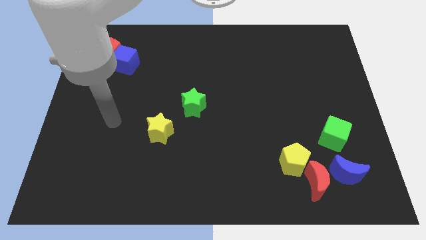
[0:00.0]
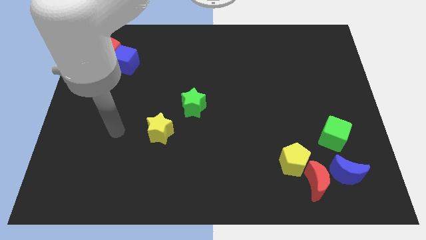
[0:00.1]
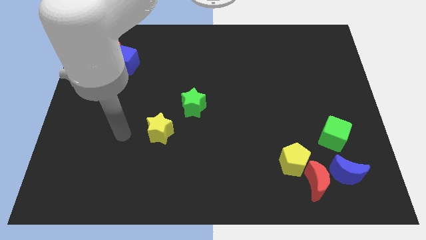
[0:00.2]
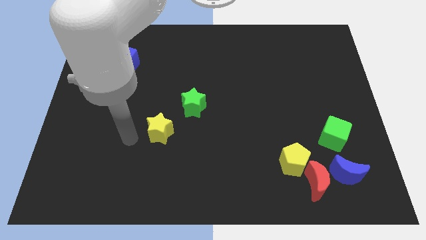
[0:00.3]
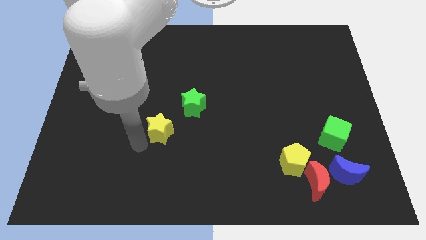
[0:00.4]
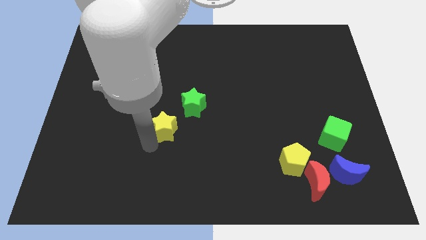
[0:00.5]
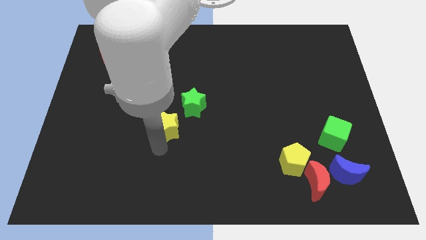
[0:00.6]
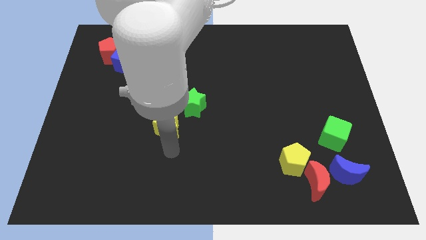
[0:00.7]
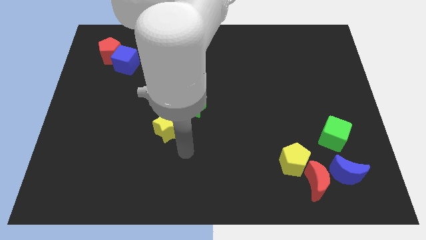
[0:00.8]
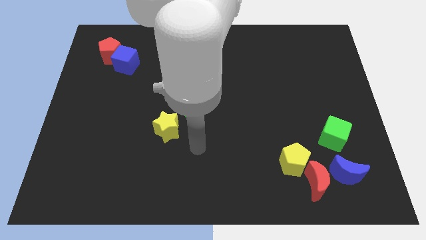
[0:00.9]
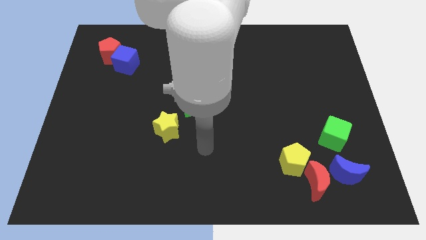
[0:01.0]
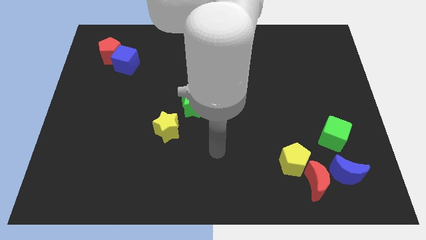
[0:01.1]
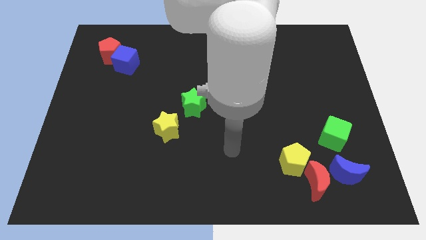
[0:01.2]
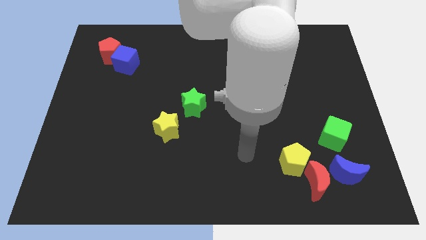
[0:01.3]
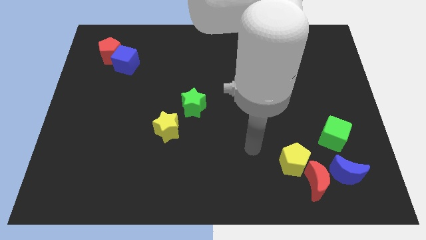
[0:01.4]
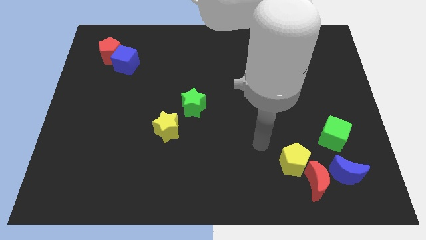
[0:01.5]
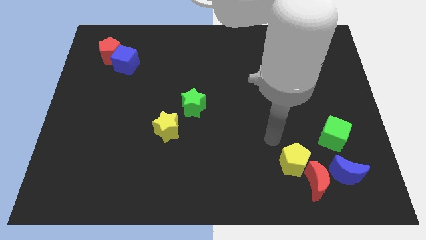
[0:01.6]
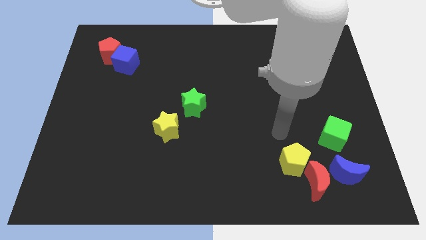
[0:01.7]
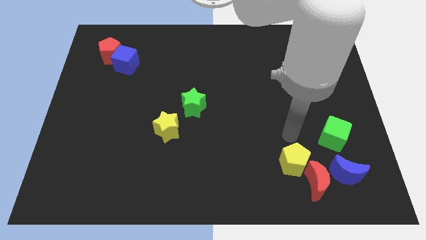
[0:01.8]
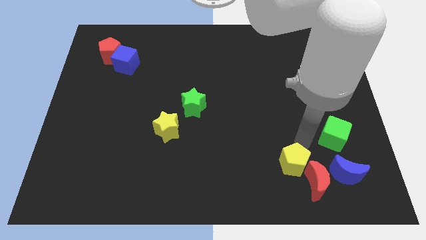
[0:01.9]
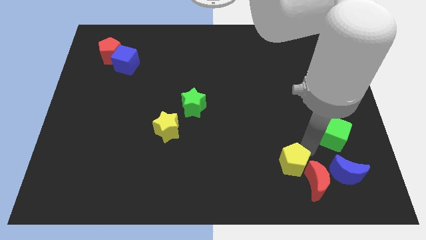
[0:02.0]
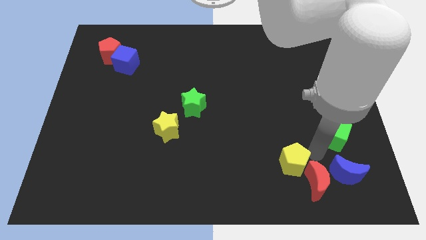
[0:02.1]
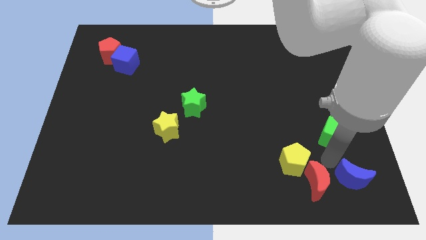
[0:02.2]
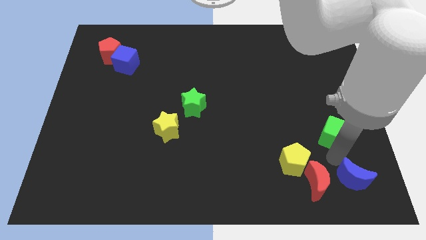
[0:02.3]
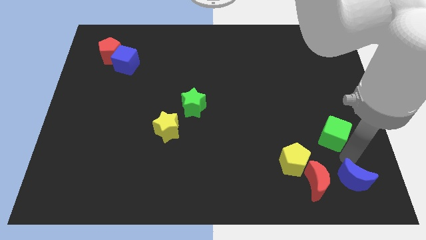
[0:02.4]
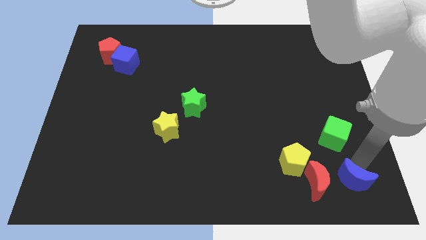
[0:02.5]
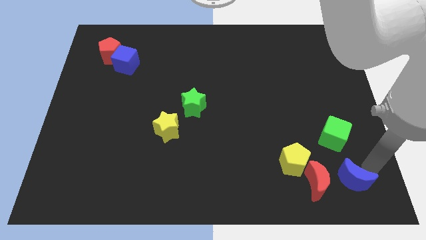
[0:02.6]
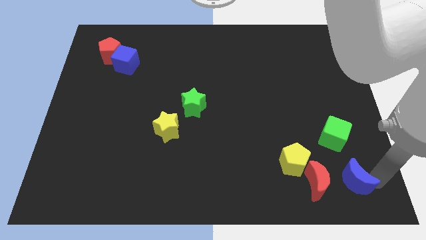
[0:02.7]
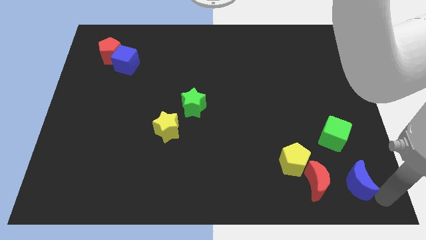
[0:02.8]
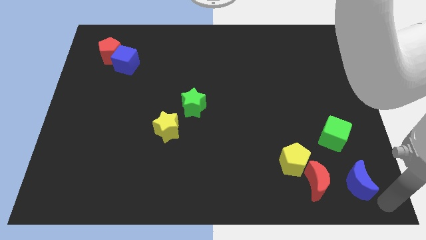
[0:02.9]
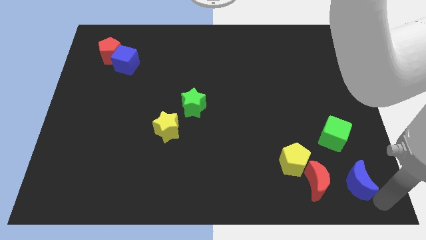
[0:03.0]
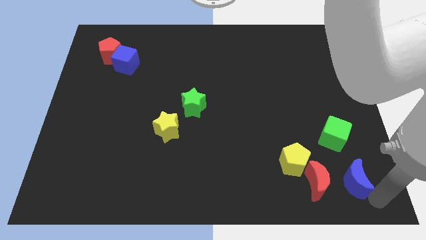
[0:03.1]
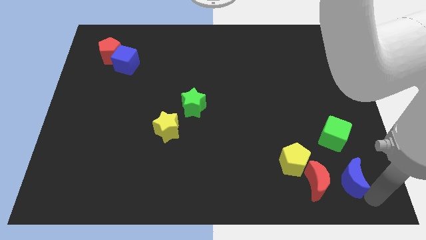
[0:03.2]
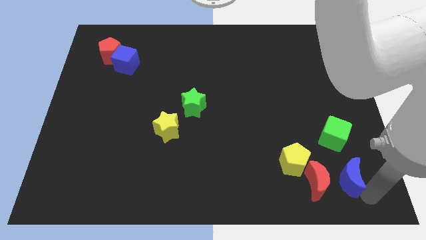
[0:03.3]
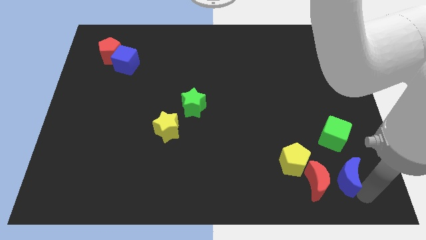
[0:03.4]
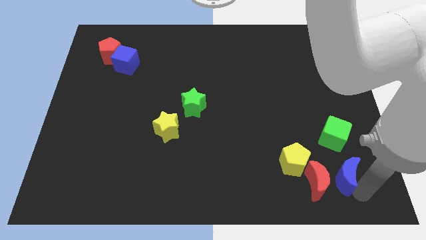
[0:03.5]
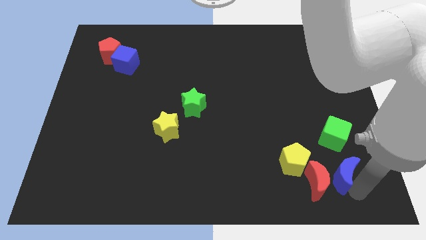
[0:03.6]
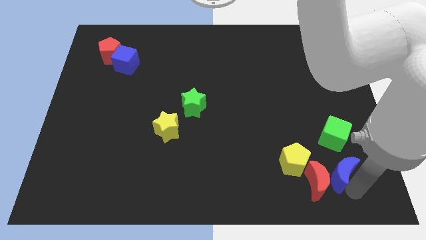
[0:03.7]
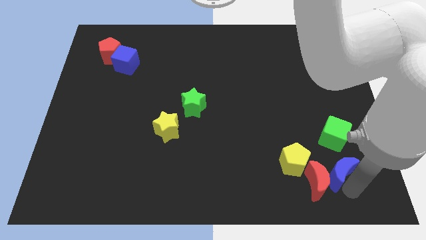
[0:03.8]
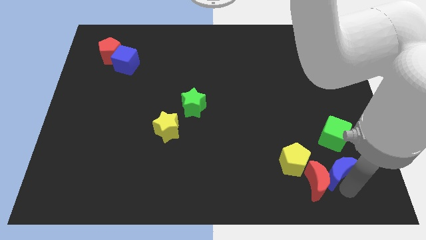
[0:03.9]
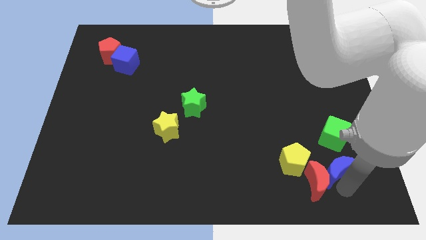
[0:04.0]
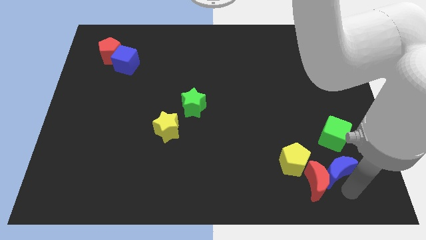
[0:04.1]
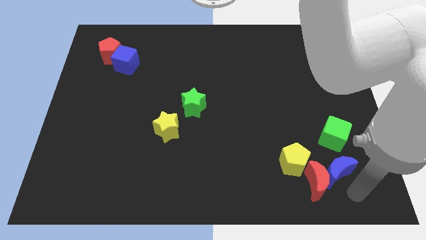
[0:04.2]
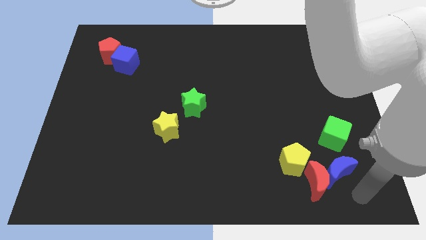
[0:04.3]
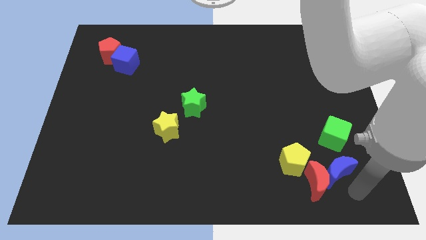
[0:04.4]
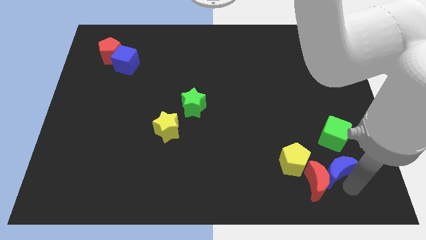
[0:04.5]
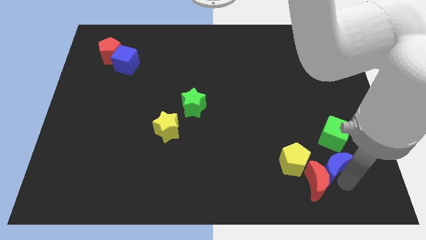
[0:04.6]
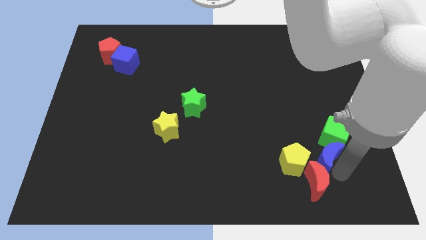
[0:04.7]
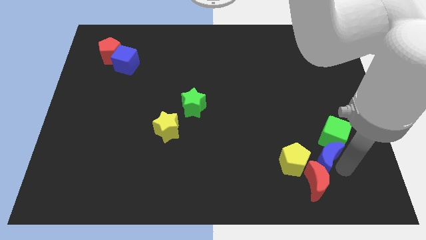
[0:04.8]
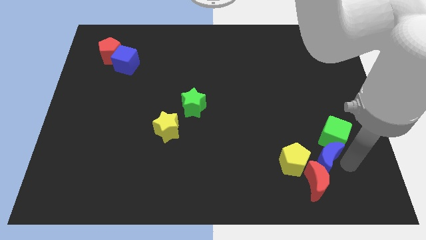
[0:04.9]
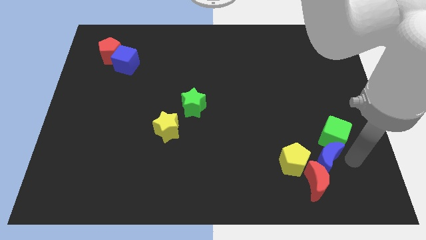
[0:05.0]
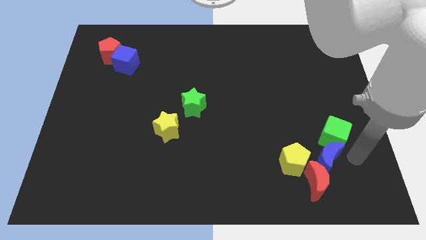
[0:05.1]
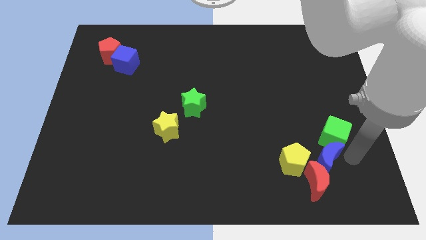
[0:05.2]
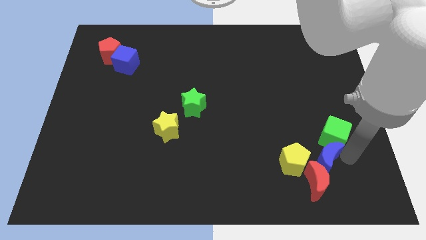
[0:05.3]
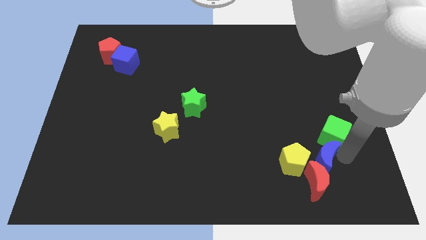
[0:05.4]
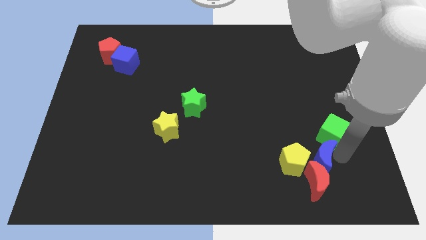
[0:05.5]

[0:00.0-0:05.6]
put the blue moon to the yellow pentagon

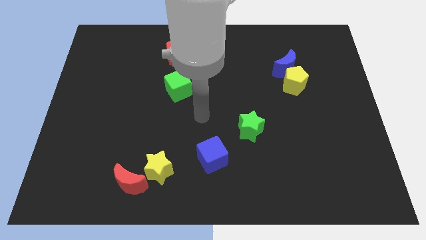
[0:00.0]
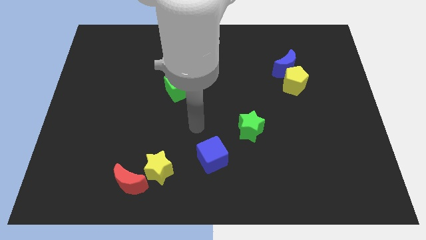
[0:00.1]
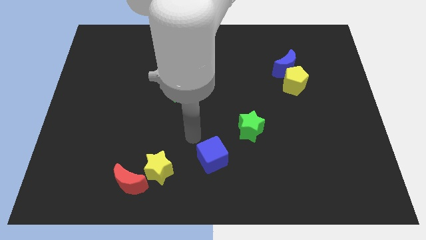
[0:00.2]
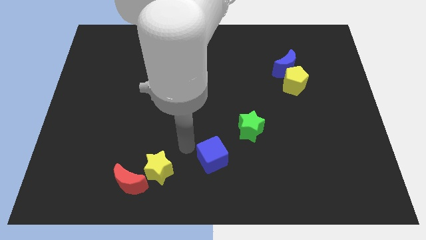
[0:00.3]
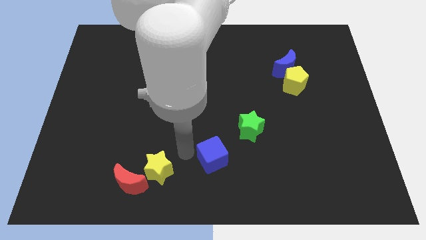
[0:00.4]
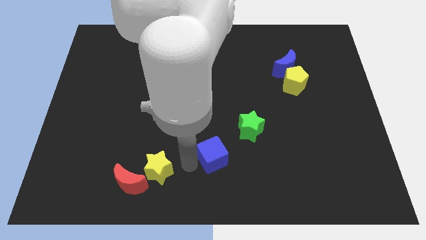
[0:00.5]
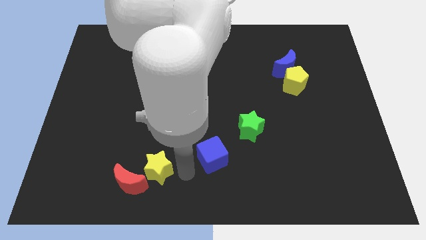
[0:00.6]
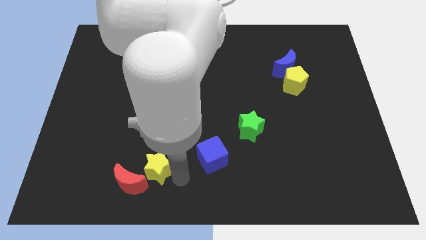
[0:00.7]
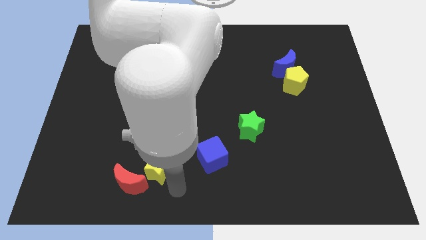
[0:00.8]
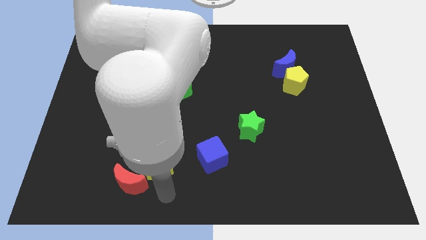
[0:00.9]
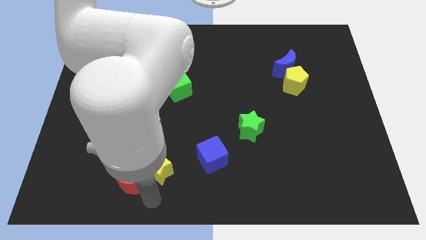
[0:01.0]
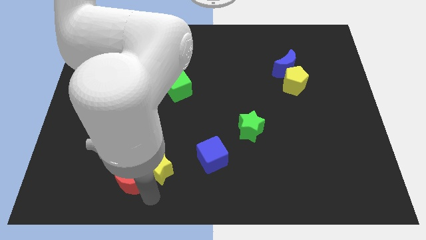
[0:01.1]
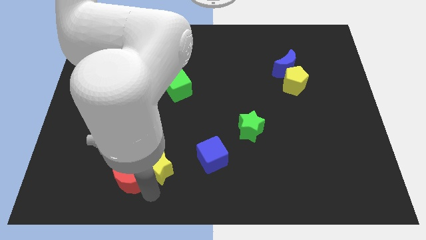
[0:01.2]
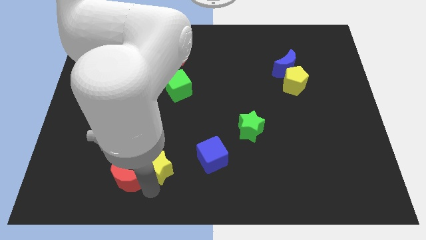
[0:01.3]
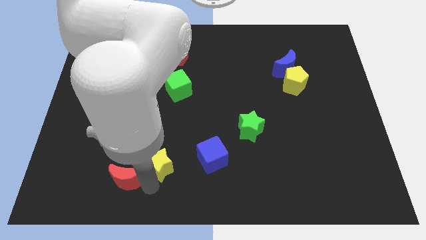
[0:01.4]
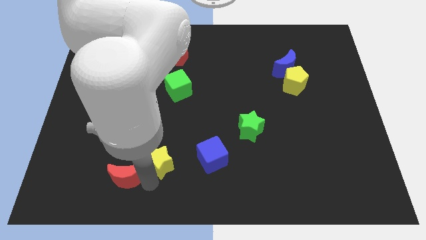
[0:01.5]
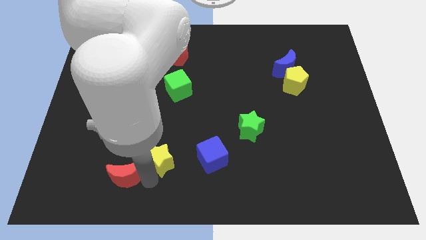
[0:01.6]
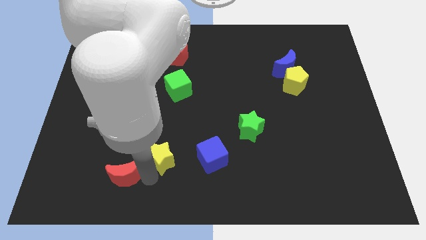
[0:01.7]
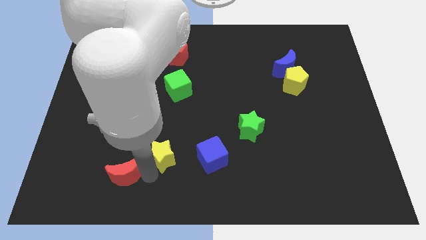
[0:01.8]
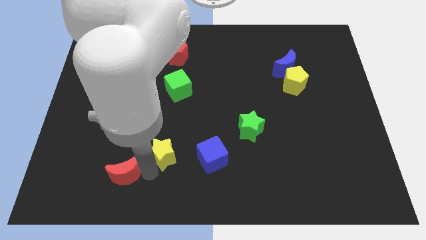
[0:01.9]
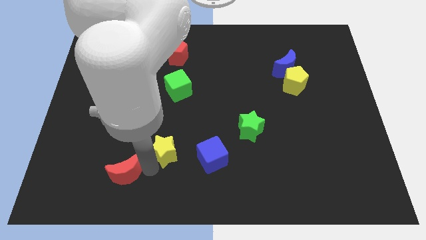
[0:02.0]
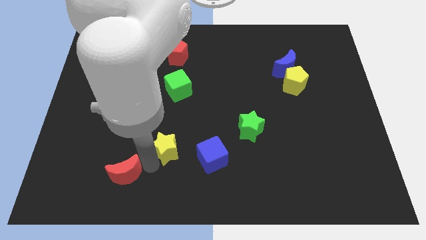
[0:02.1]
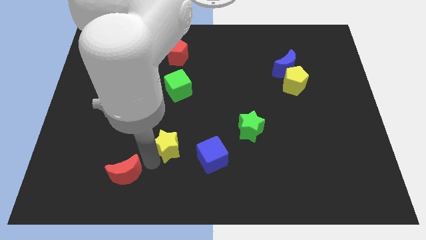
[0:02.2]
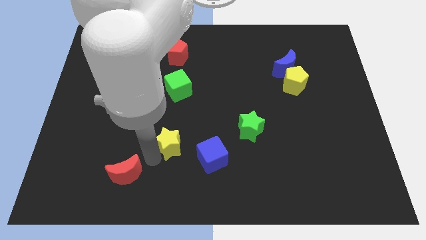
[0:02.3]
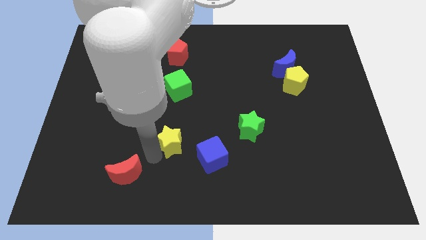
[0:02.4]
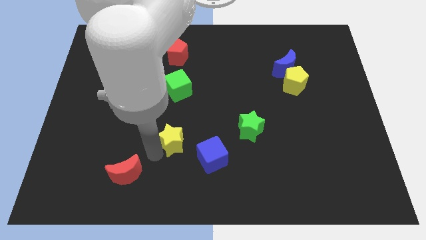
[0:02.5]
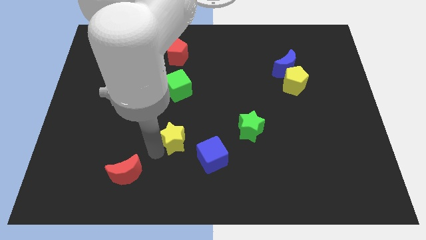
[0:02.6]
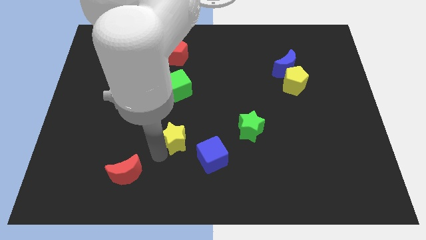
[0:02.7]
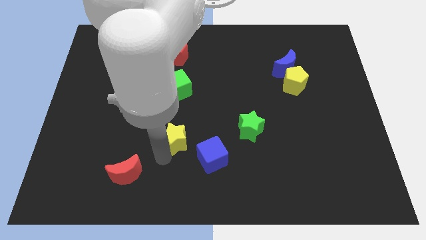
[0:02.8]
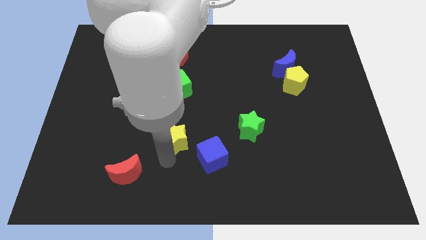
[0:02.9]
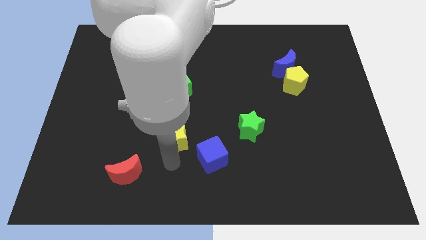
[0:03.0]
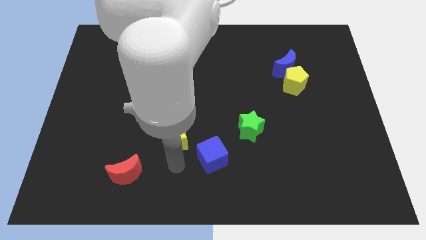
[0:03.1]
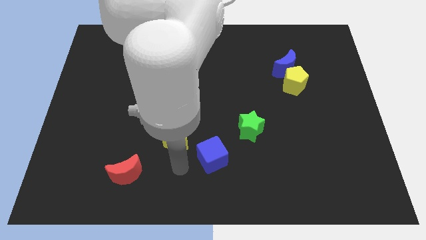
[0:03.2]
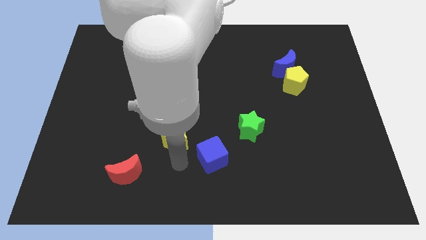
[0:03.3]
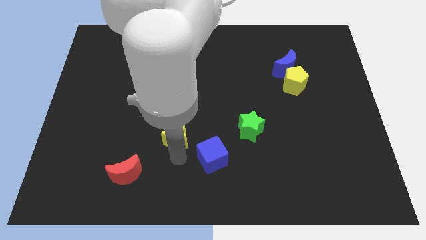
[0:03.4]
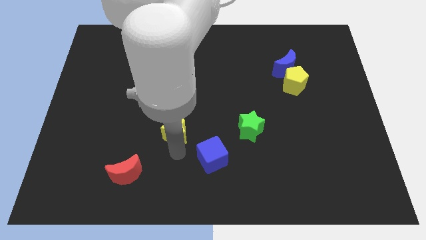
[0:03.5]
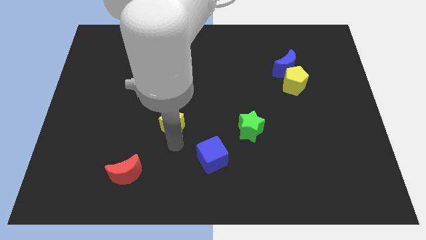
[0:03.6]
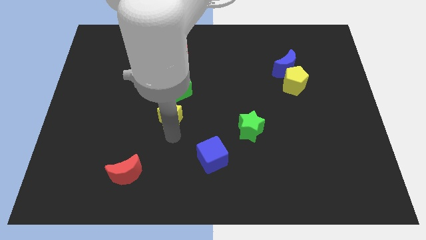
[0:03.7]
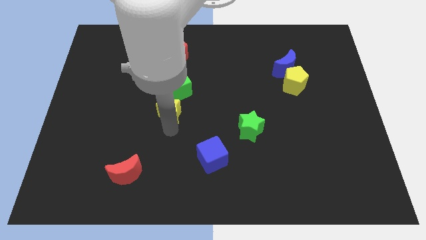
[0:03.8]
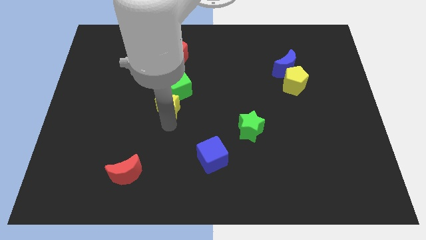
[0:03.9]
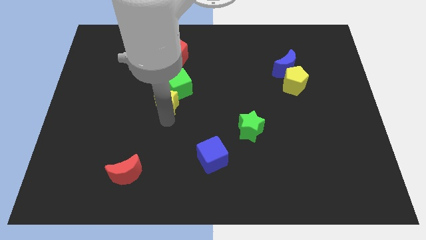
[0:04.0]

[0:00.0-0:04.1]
slide the yellow star close to the green cube
